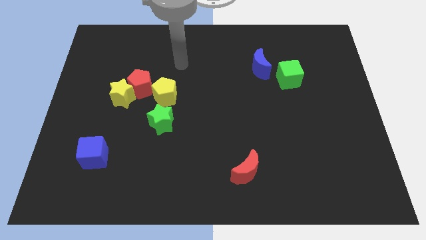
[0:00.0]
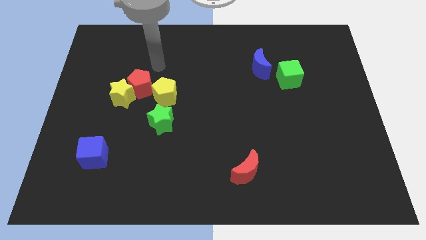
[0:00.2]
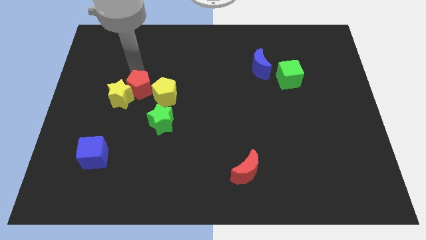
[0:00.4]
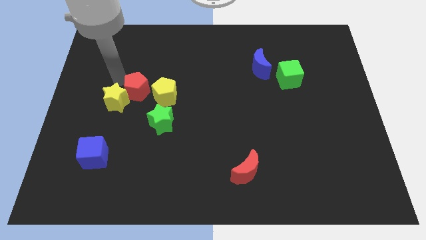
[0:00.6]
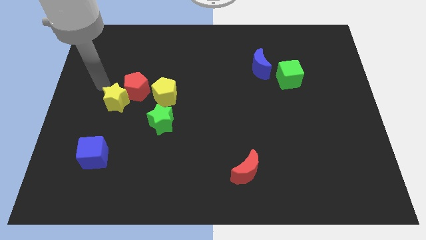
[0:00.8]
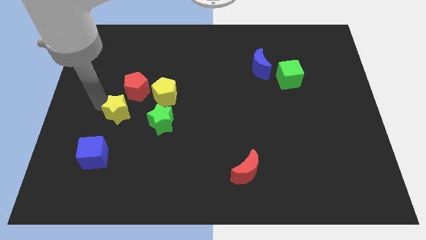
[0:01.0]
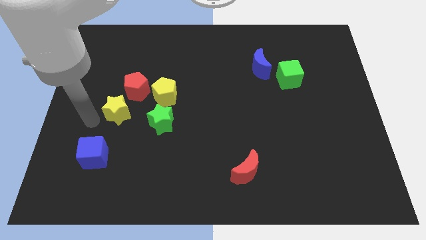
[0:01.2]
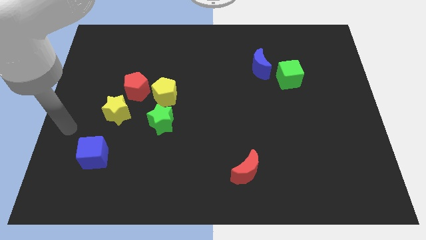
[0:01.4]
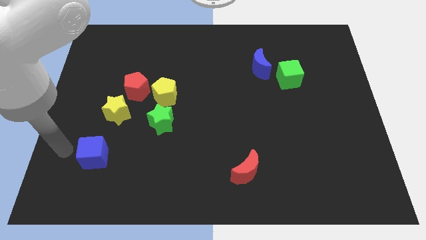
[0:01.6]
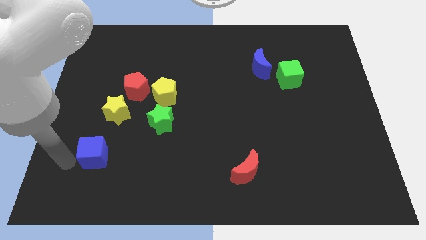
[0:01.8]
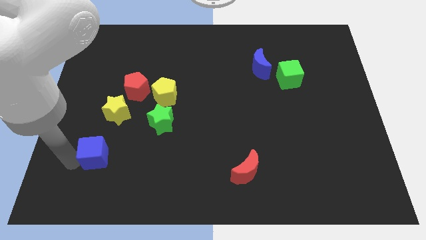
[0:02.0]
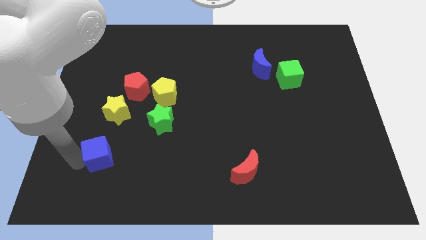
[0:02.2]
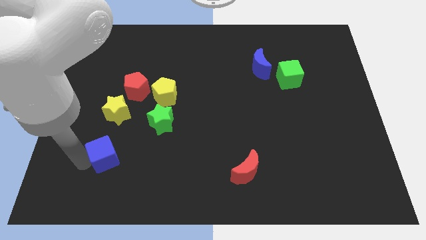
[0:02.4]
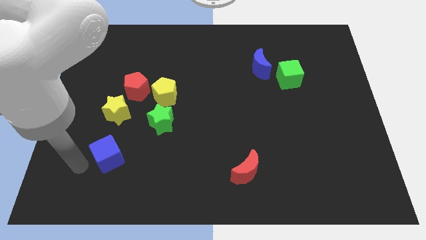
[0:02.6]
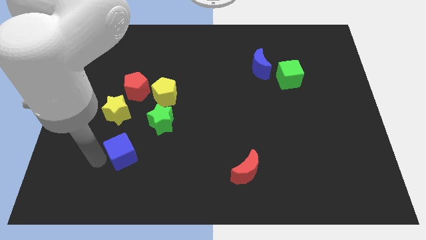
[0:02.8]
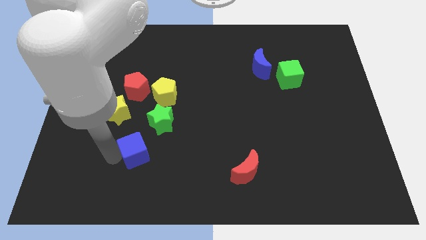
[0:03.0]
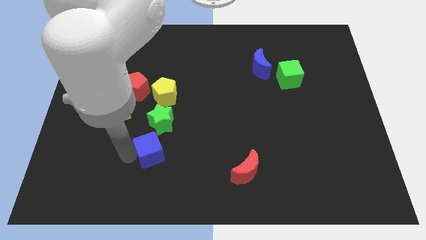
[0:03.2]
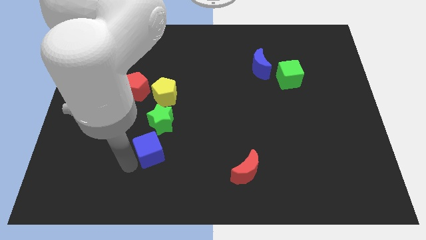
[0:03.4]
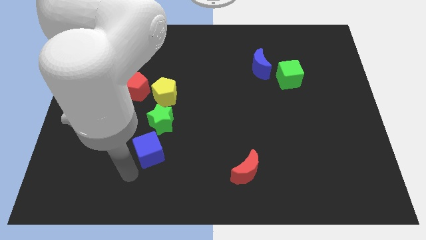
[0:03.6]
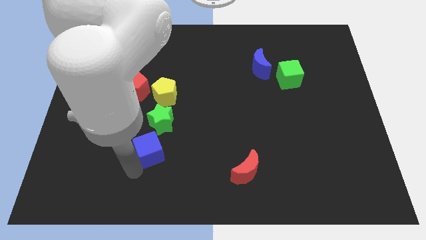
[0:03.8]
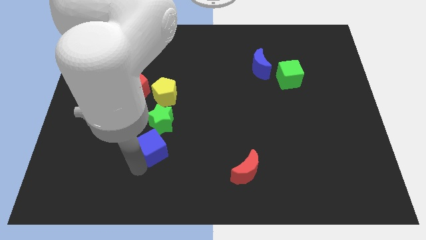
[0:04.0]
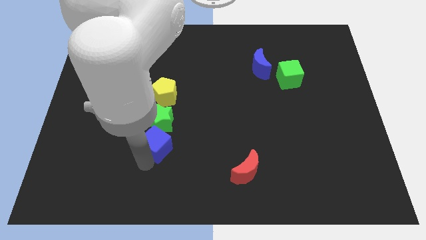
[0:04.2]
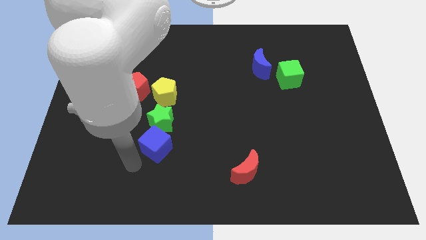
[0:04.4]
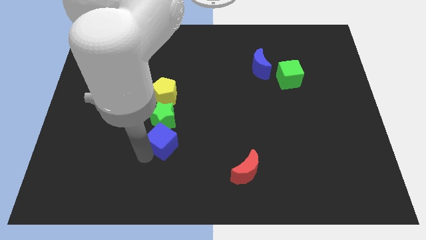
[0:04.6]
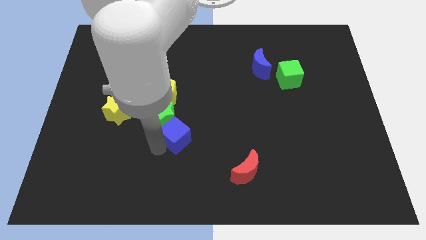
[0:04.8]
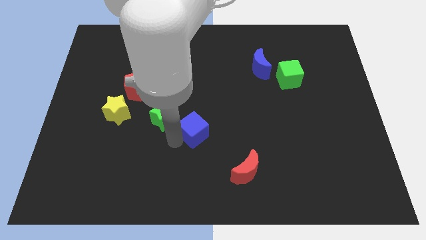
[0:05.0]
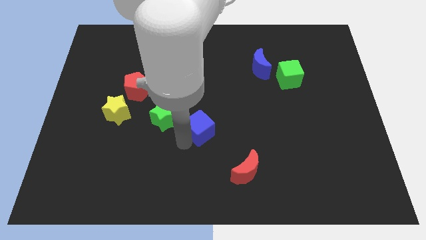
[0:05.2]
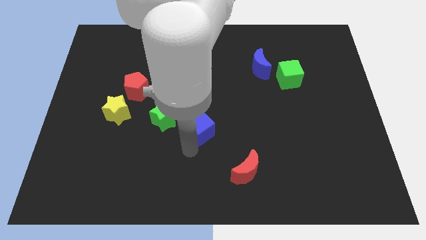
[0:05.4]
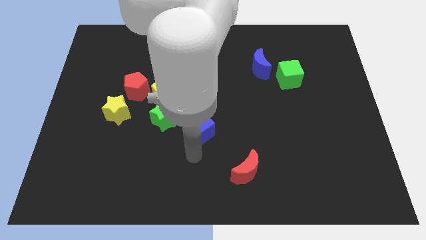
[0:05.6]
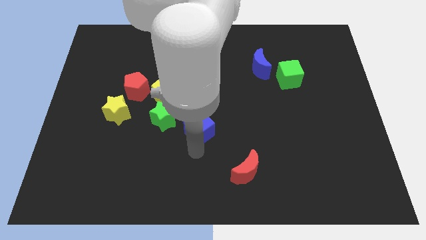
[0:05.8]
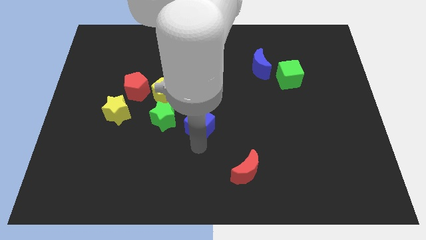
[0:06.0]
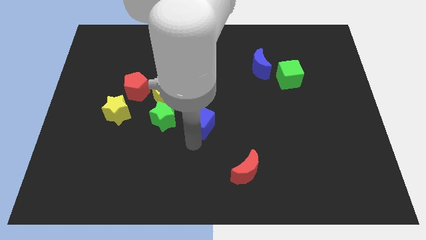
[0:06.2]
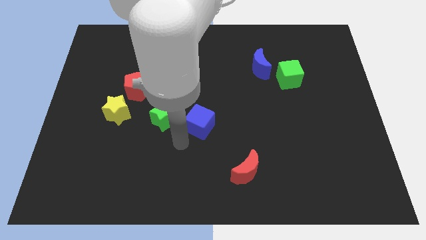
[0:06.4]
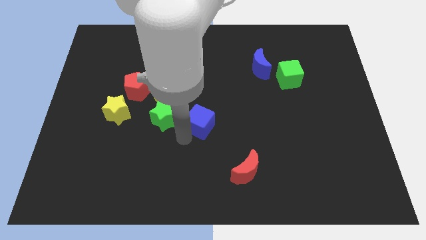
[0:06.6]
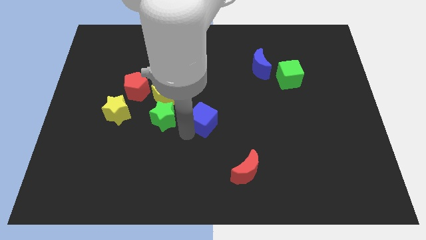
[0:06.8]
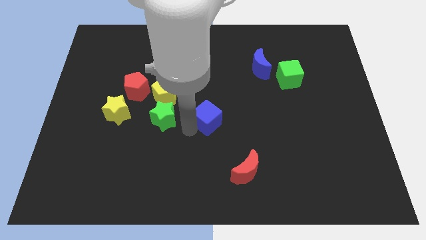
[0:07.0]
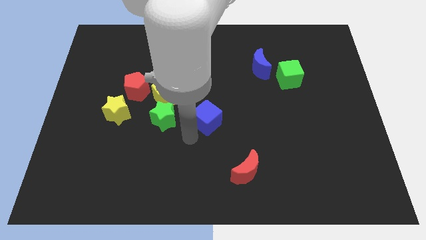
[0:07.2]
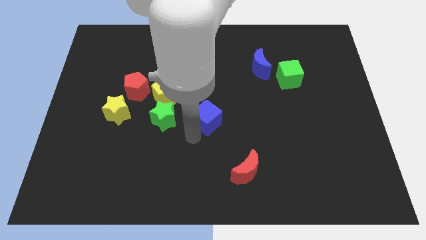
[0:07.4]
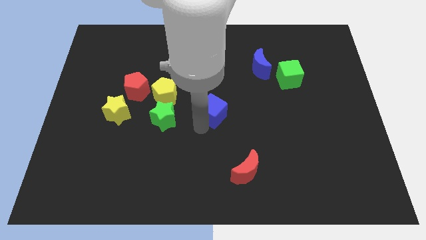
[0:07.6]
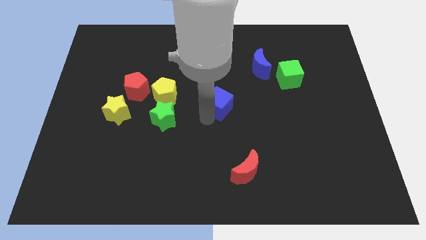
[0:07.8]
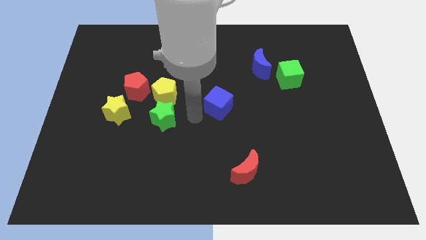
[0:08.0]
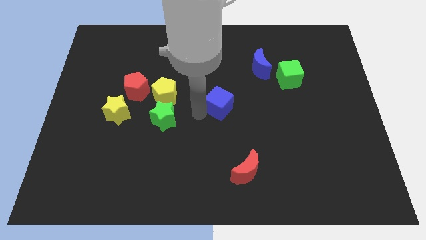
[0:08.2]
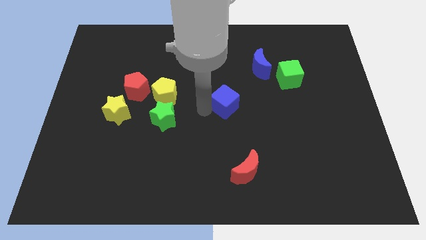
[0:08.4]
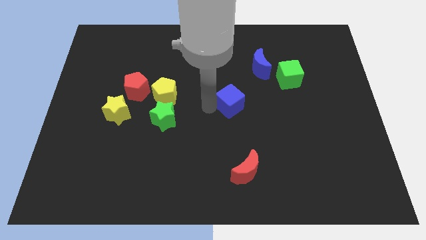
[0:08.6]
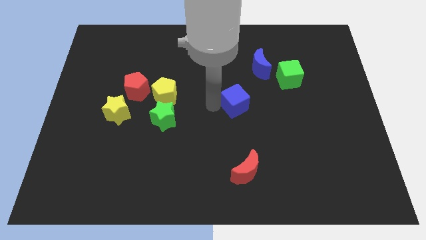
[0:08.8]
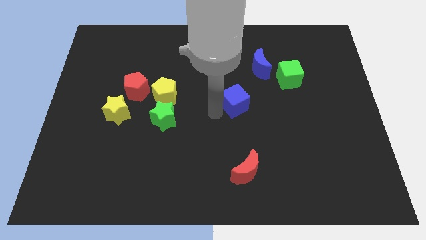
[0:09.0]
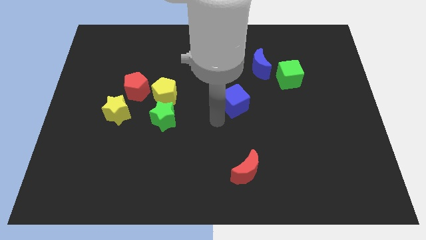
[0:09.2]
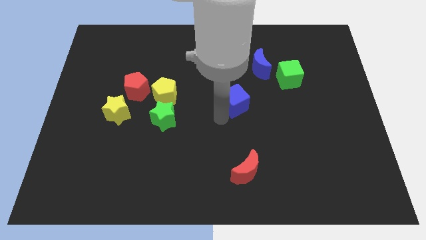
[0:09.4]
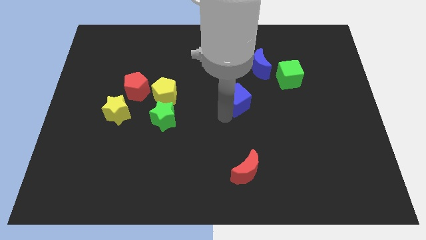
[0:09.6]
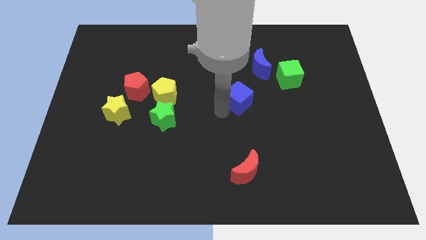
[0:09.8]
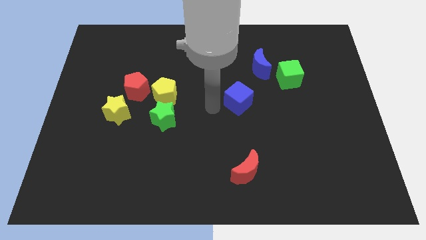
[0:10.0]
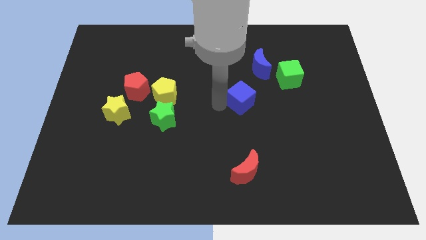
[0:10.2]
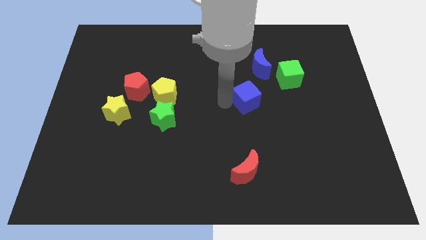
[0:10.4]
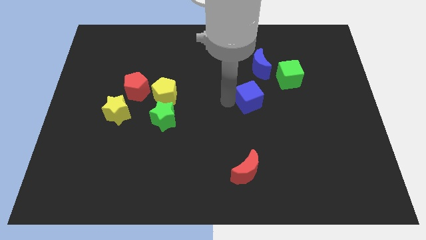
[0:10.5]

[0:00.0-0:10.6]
put the blue cube to the bottom left of the green cube

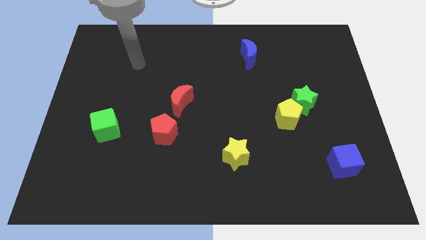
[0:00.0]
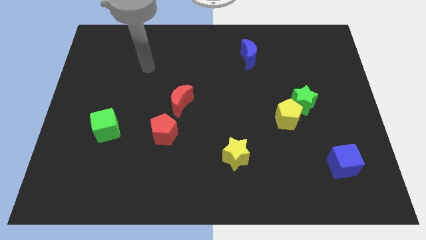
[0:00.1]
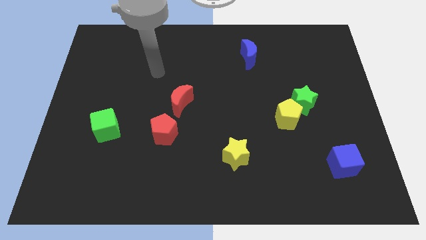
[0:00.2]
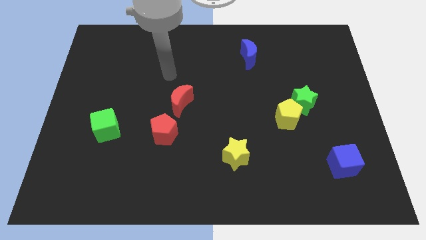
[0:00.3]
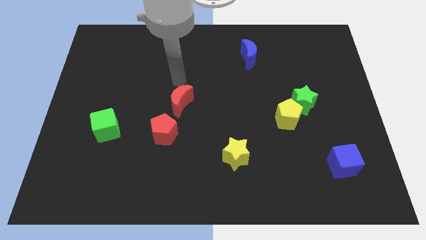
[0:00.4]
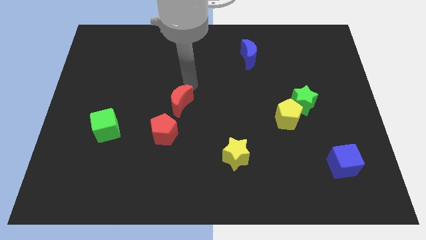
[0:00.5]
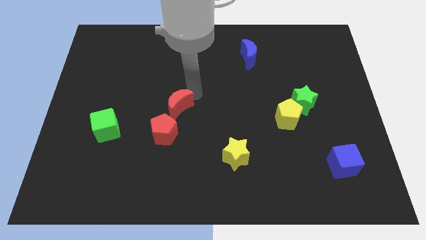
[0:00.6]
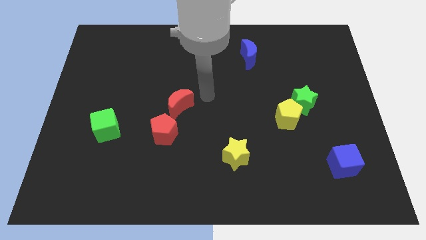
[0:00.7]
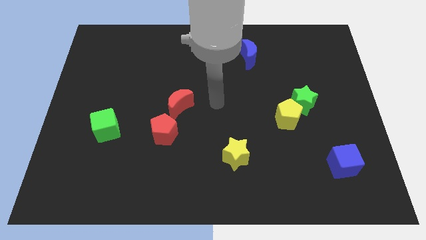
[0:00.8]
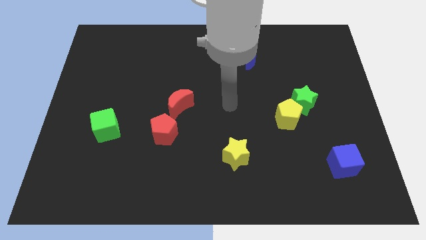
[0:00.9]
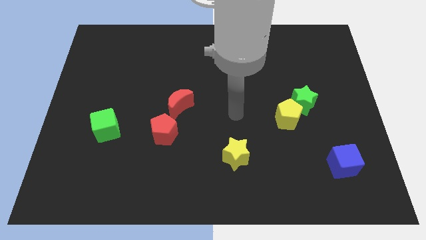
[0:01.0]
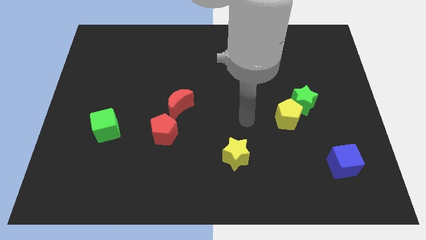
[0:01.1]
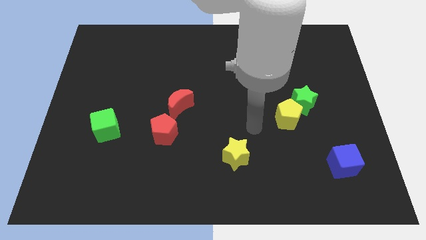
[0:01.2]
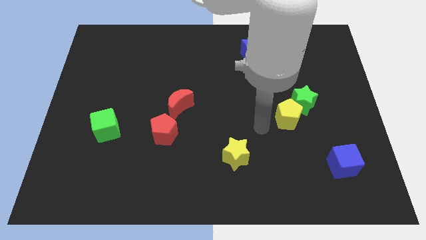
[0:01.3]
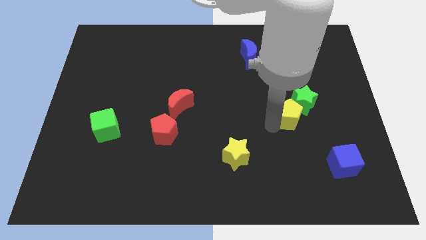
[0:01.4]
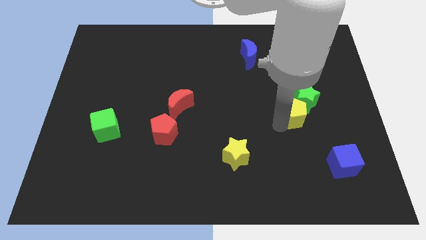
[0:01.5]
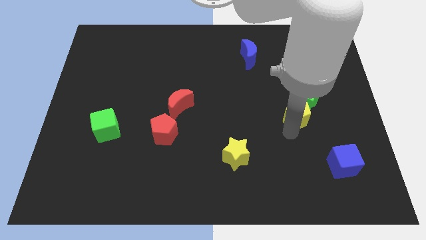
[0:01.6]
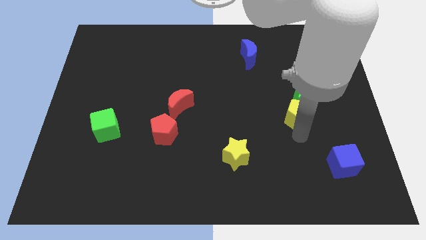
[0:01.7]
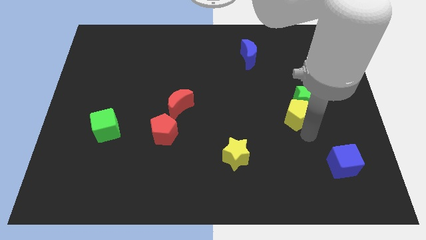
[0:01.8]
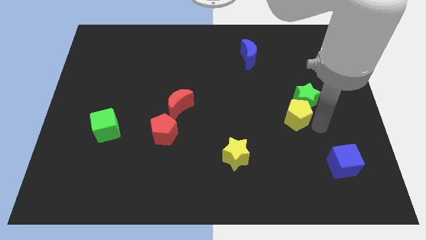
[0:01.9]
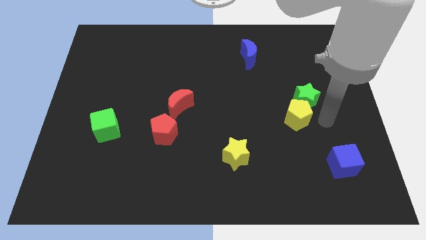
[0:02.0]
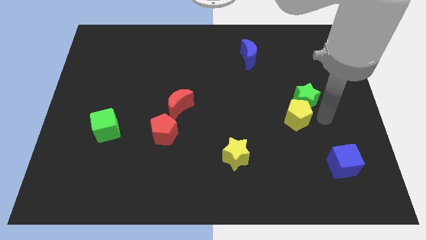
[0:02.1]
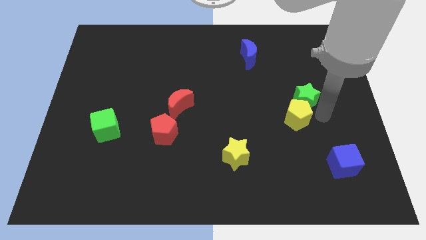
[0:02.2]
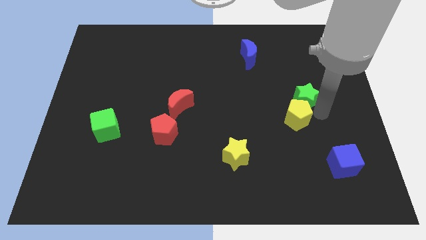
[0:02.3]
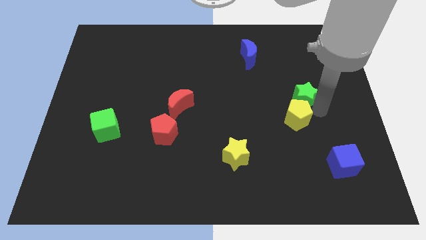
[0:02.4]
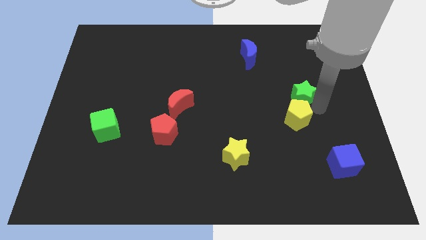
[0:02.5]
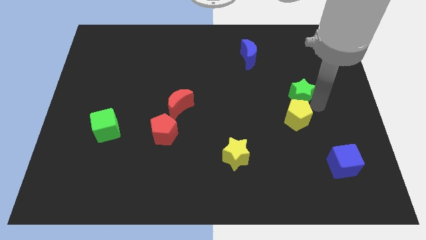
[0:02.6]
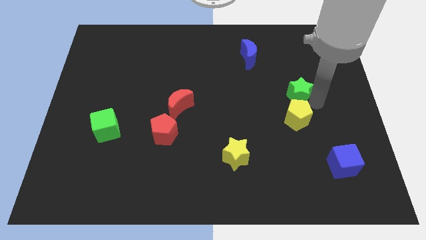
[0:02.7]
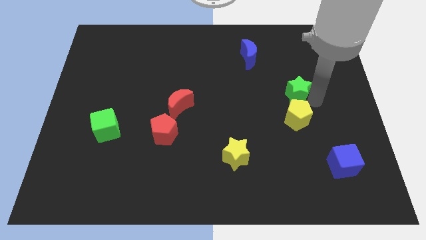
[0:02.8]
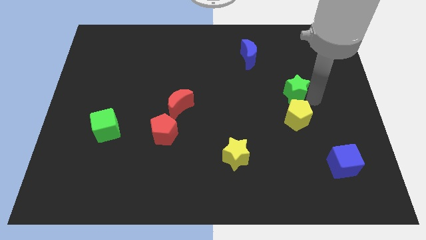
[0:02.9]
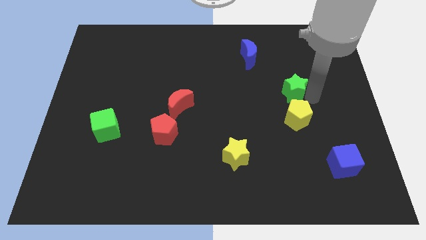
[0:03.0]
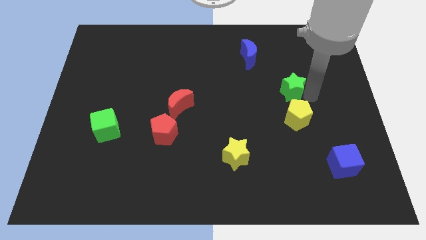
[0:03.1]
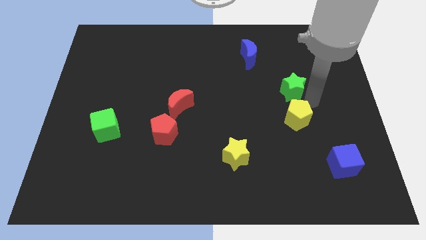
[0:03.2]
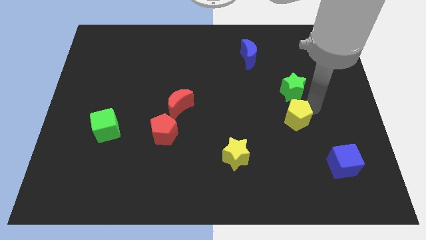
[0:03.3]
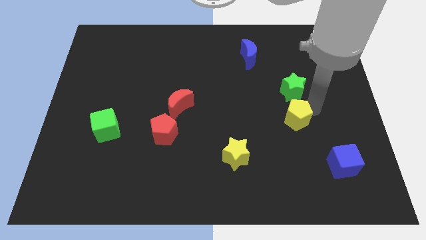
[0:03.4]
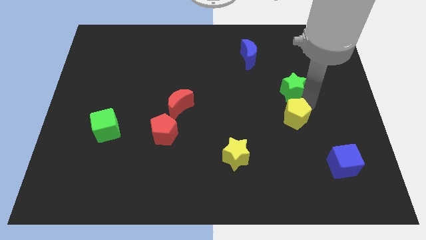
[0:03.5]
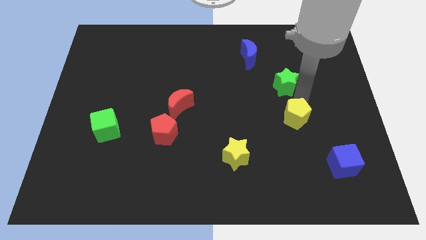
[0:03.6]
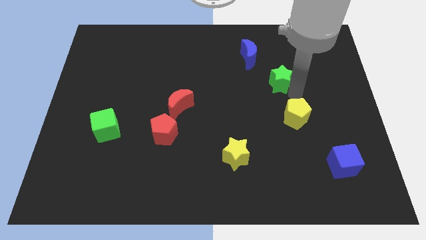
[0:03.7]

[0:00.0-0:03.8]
push the green star diagonally down and to the right of the blue moon
